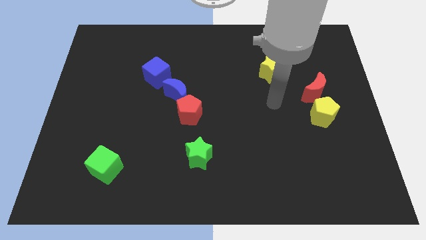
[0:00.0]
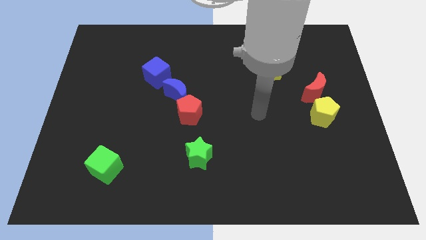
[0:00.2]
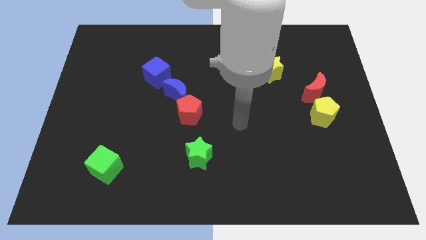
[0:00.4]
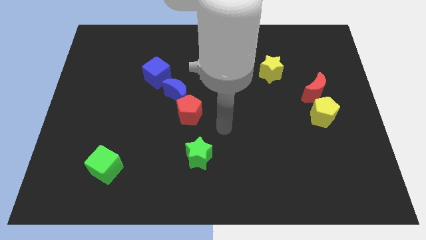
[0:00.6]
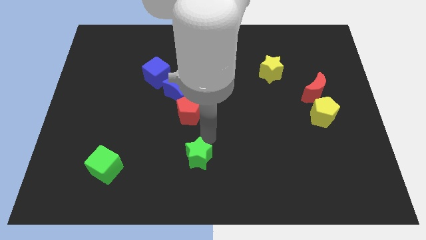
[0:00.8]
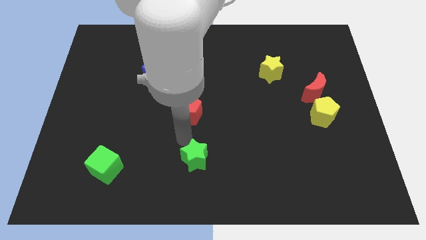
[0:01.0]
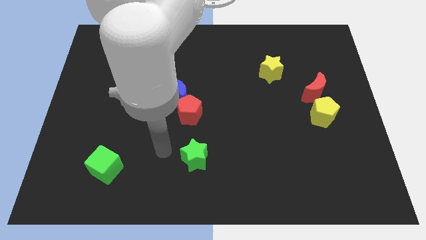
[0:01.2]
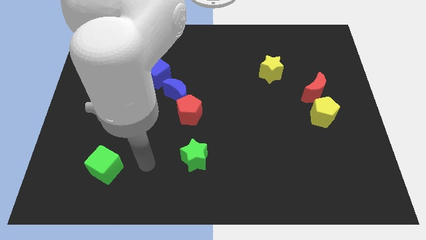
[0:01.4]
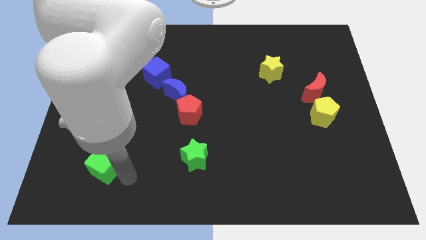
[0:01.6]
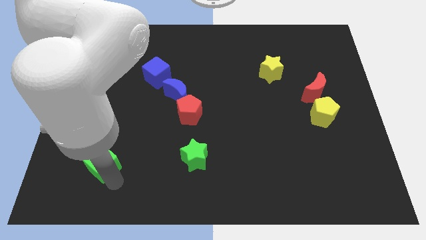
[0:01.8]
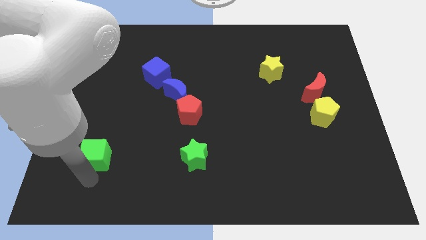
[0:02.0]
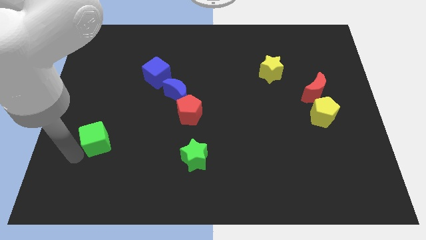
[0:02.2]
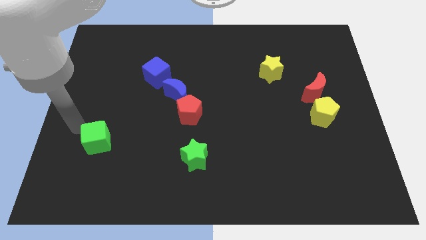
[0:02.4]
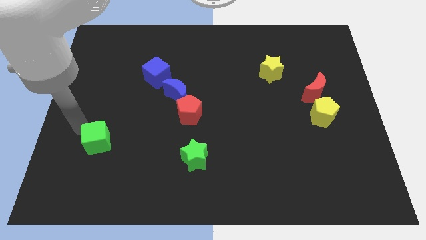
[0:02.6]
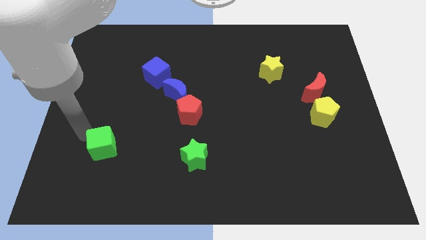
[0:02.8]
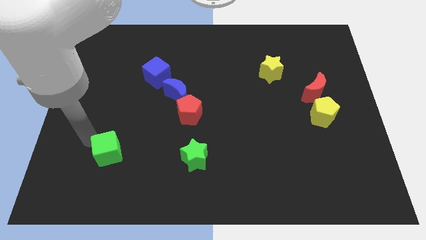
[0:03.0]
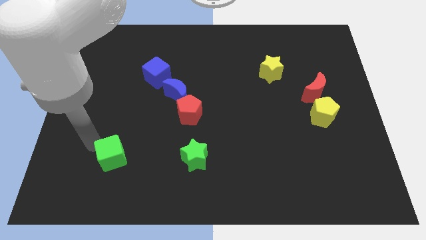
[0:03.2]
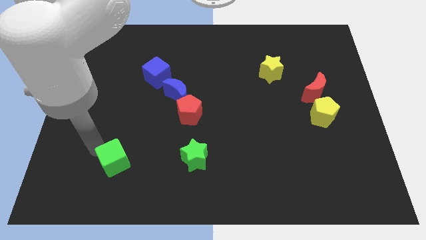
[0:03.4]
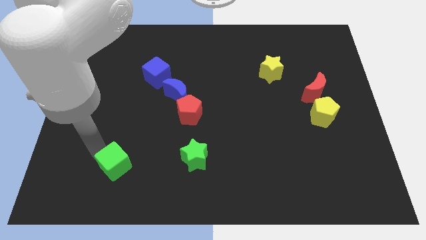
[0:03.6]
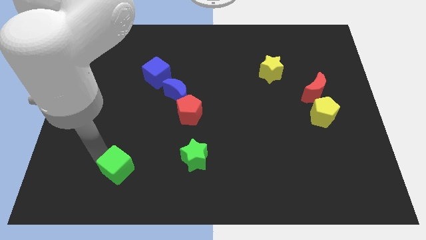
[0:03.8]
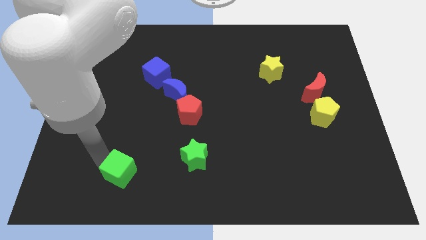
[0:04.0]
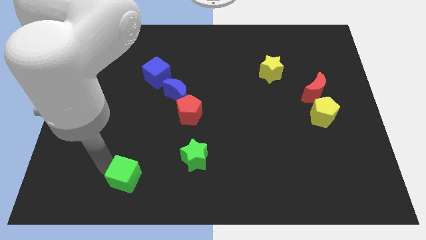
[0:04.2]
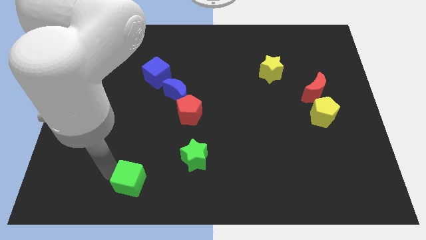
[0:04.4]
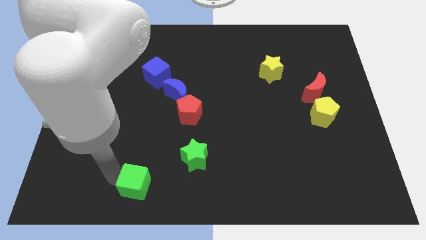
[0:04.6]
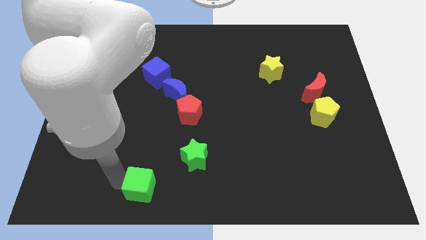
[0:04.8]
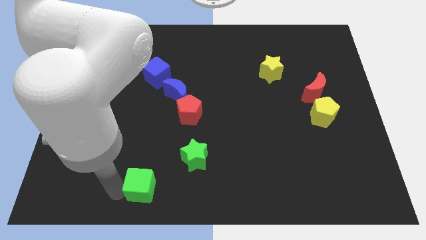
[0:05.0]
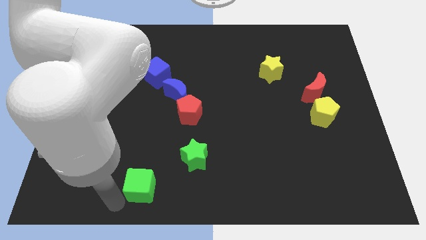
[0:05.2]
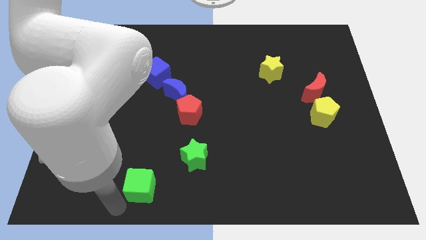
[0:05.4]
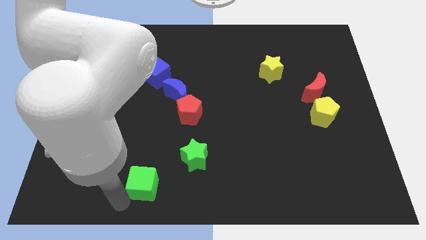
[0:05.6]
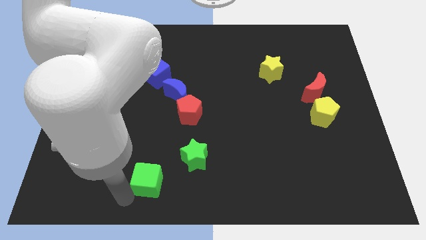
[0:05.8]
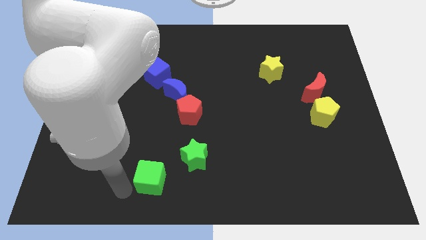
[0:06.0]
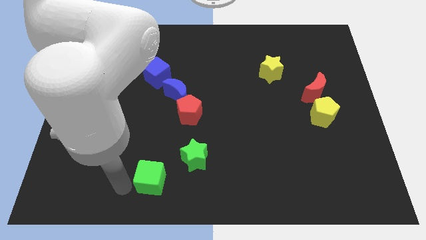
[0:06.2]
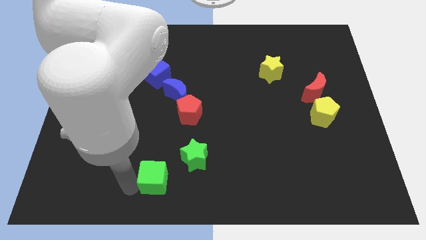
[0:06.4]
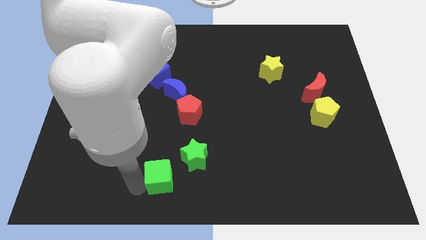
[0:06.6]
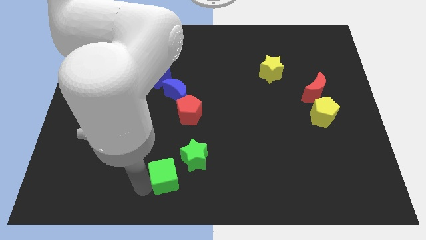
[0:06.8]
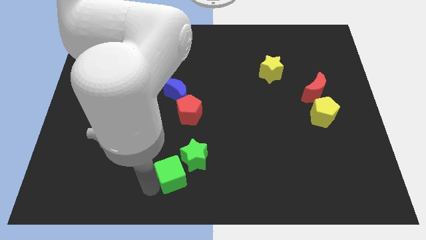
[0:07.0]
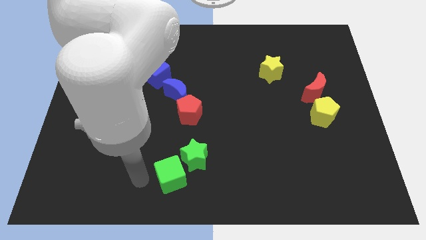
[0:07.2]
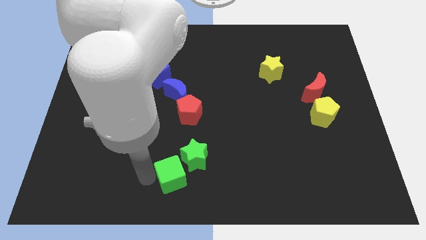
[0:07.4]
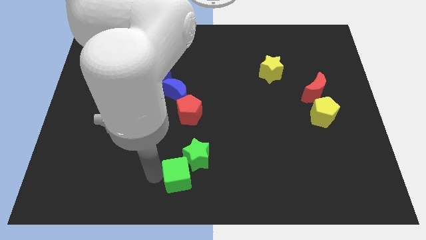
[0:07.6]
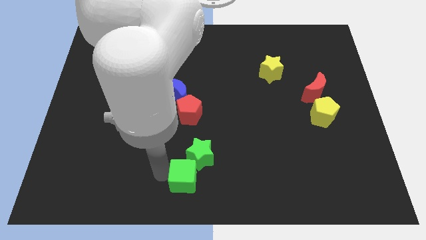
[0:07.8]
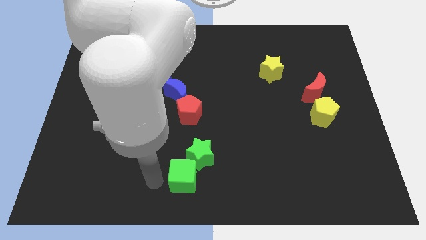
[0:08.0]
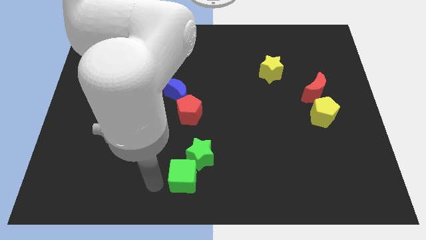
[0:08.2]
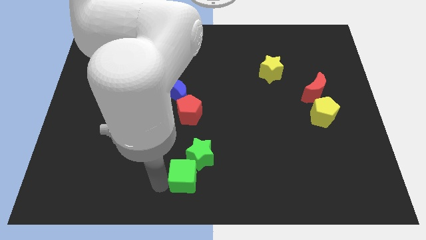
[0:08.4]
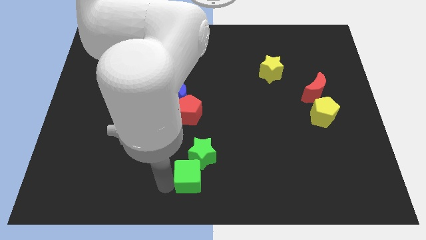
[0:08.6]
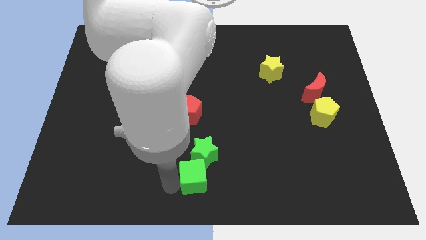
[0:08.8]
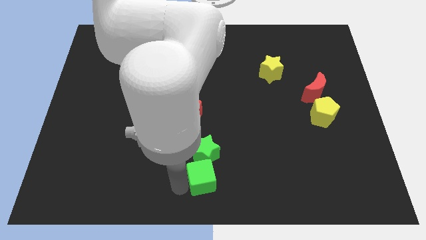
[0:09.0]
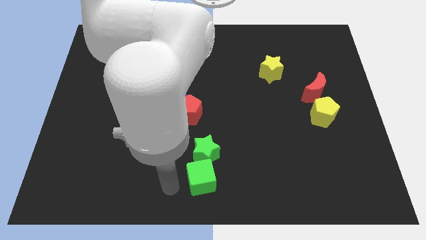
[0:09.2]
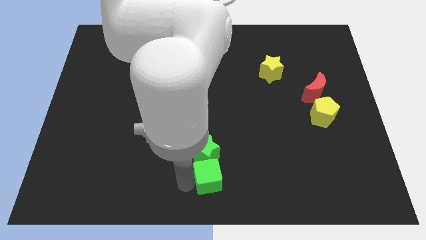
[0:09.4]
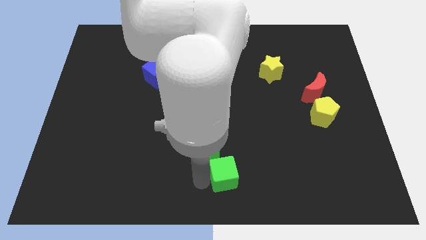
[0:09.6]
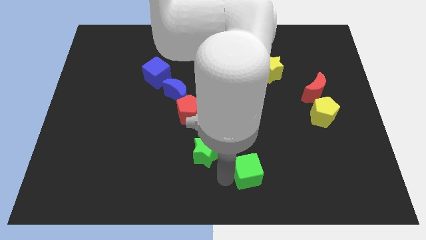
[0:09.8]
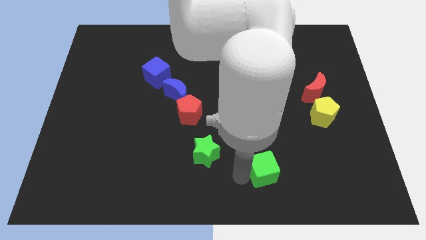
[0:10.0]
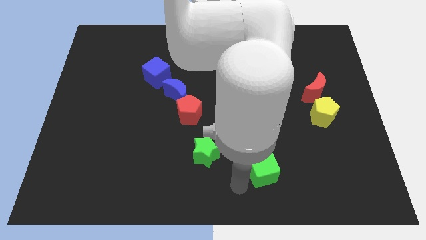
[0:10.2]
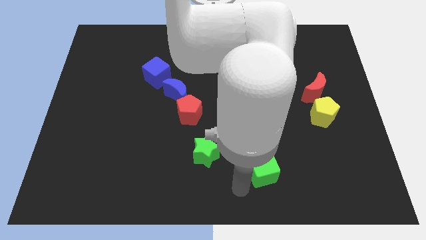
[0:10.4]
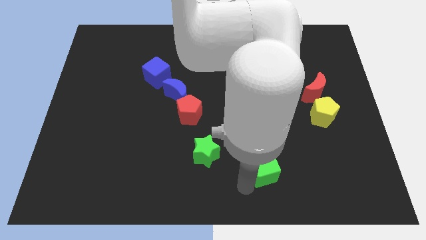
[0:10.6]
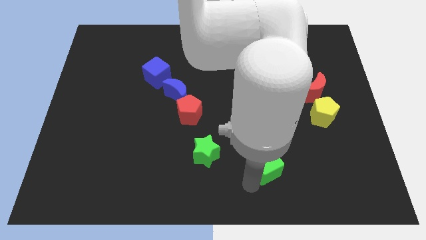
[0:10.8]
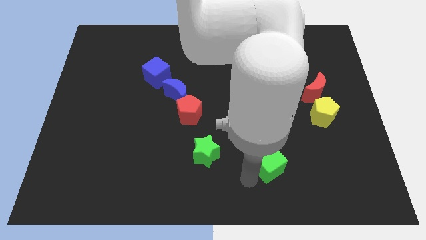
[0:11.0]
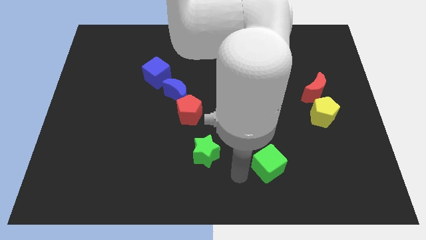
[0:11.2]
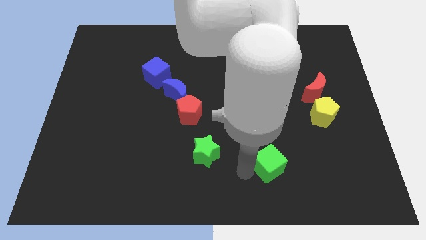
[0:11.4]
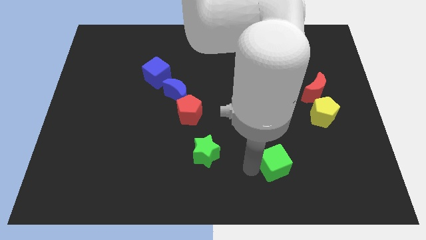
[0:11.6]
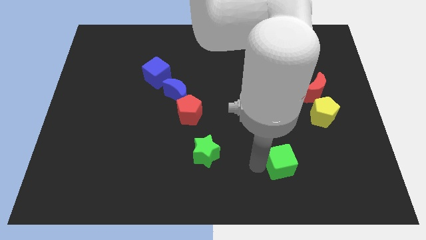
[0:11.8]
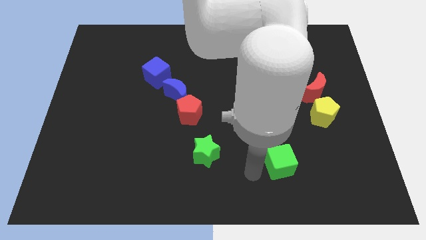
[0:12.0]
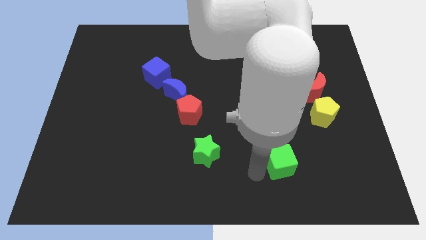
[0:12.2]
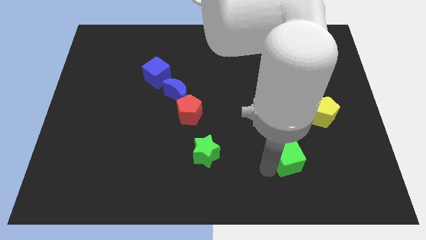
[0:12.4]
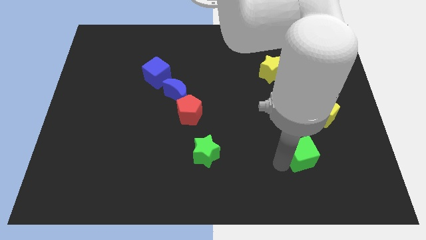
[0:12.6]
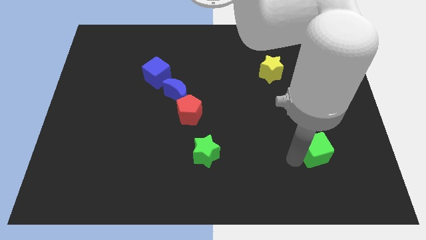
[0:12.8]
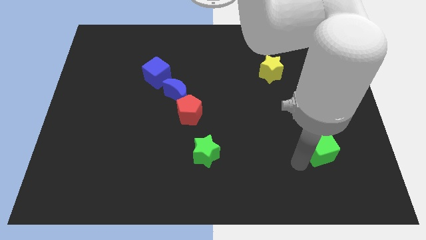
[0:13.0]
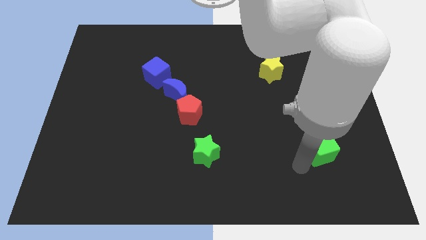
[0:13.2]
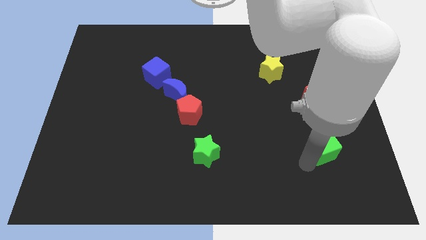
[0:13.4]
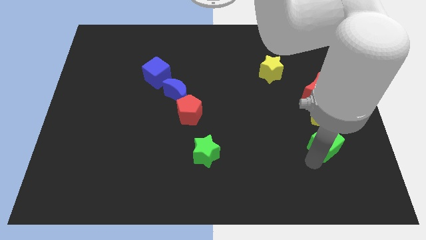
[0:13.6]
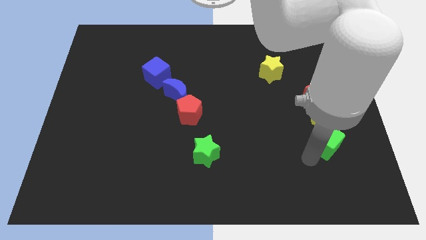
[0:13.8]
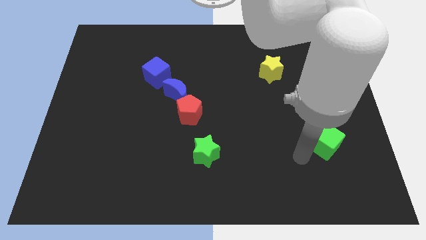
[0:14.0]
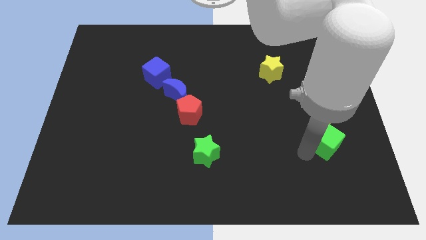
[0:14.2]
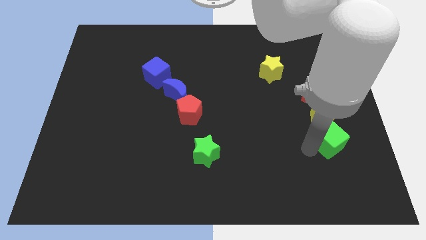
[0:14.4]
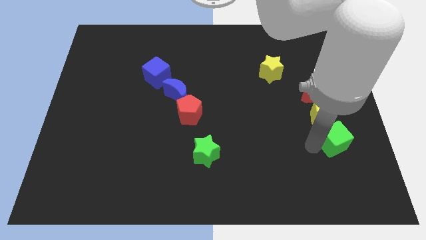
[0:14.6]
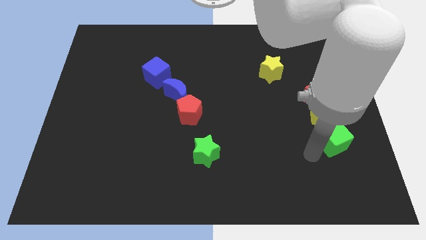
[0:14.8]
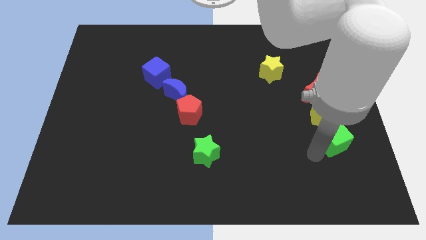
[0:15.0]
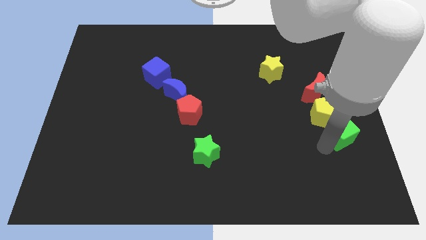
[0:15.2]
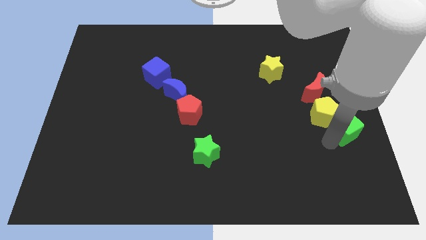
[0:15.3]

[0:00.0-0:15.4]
put the green cube to the right side of the board

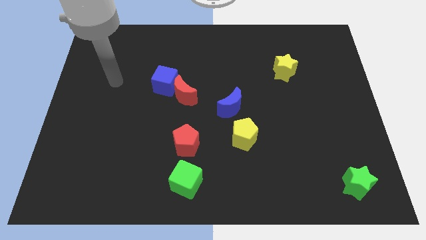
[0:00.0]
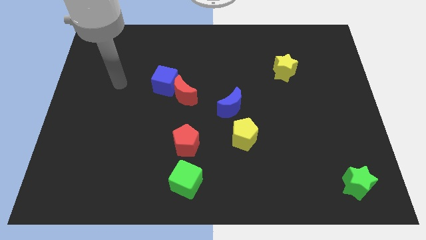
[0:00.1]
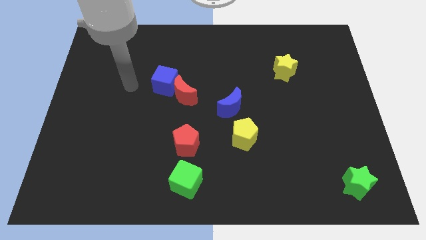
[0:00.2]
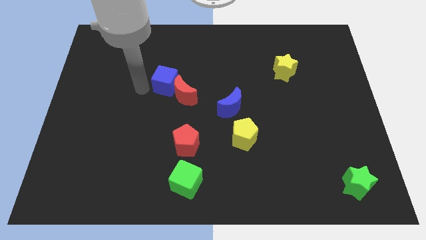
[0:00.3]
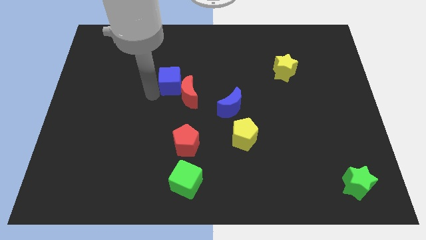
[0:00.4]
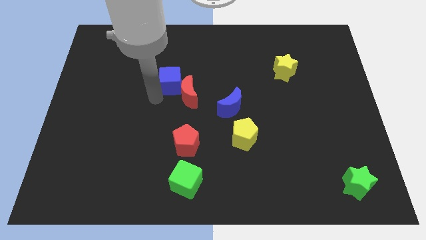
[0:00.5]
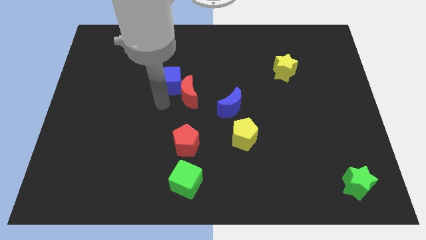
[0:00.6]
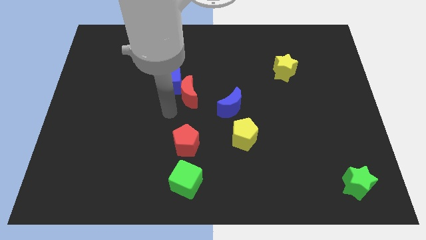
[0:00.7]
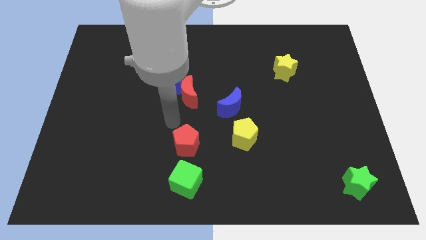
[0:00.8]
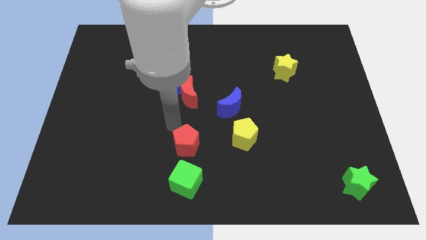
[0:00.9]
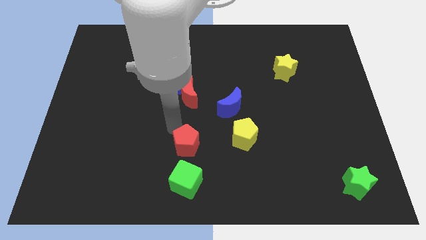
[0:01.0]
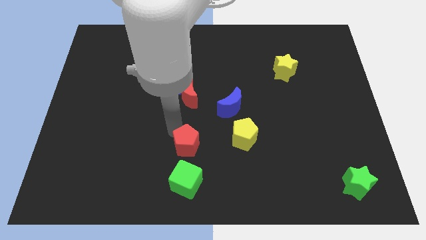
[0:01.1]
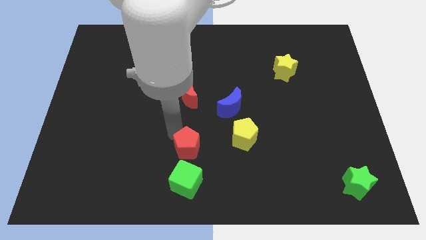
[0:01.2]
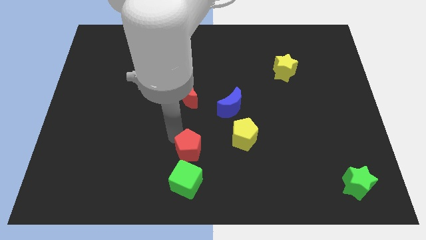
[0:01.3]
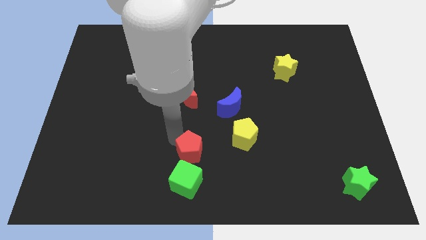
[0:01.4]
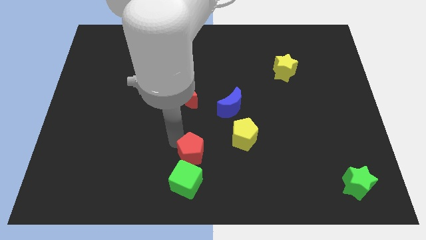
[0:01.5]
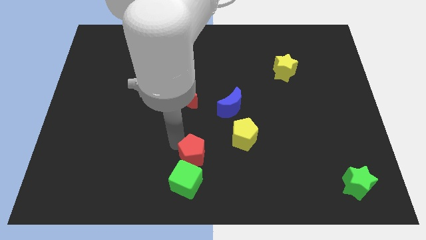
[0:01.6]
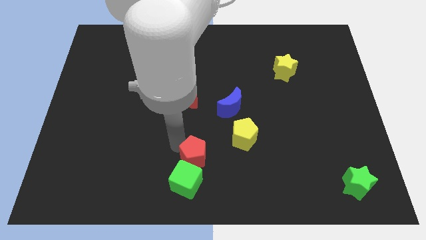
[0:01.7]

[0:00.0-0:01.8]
push the red pentagon to the bottom side
